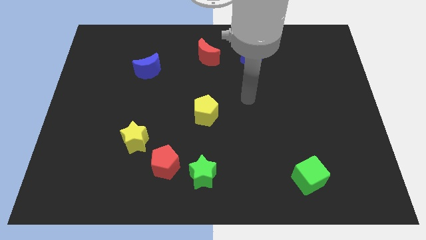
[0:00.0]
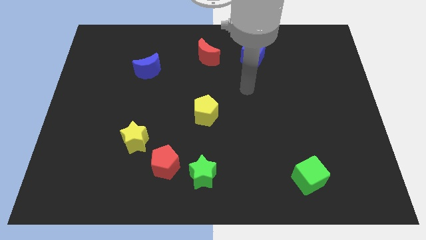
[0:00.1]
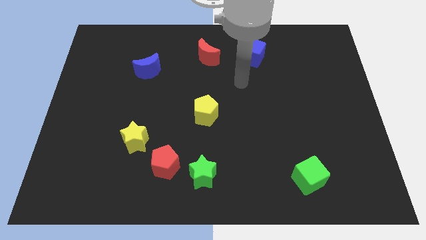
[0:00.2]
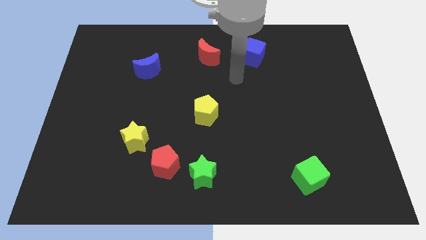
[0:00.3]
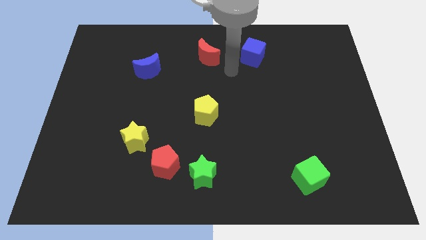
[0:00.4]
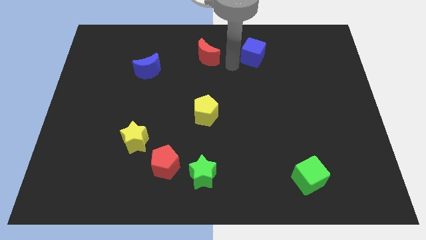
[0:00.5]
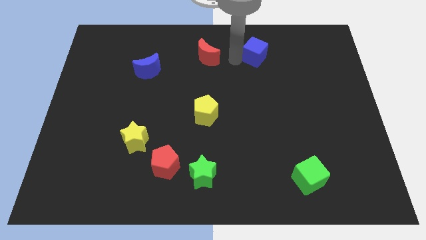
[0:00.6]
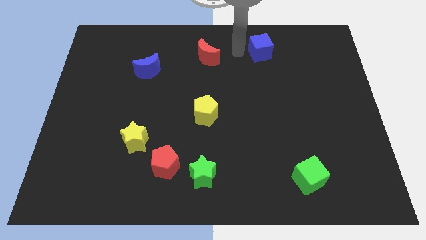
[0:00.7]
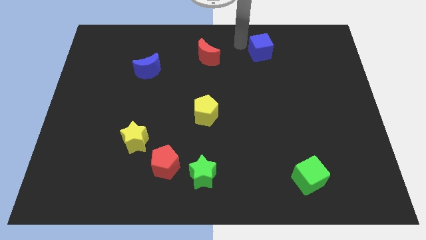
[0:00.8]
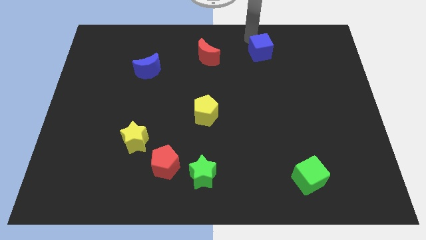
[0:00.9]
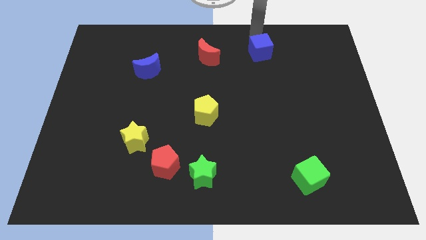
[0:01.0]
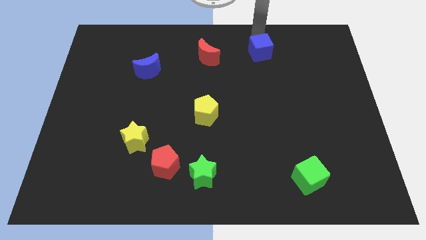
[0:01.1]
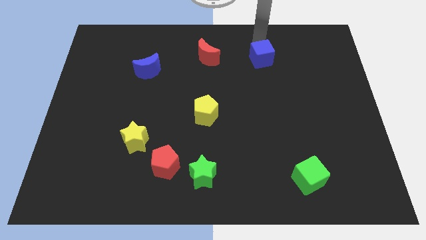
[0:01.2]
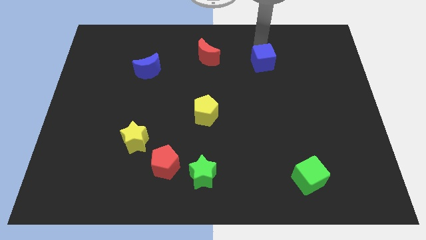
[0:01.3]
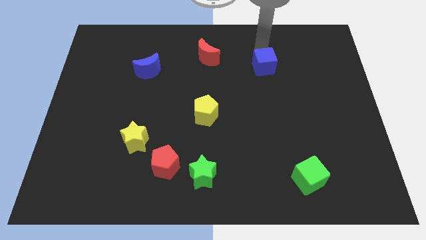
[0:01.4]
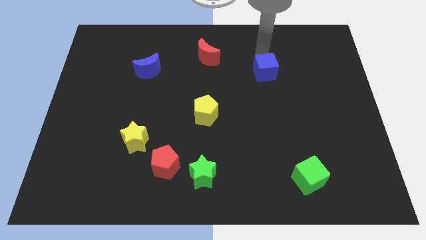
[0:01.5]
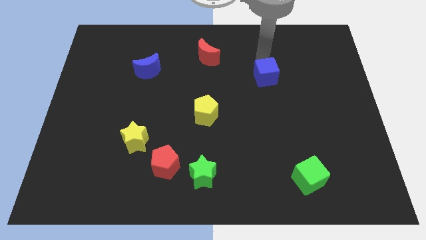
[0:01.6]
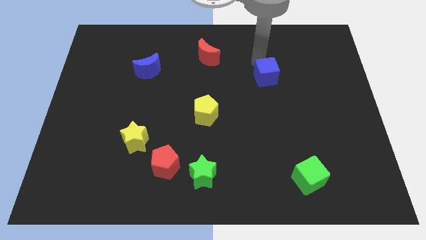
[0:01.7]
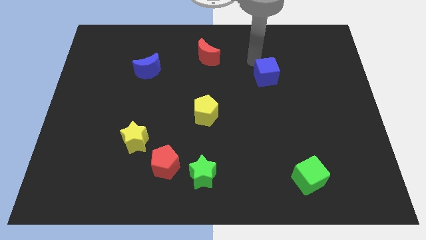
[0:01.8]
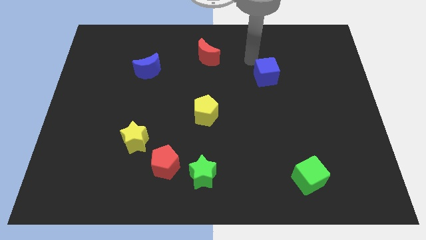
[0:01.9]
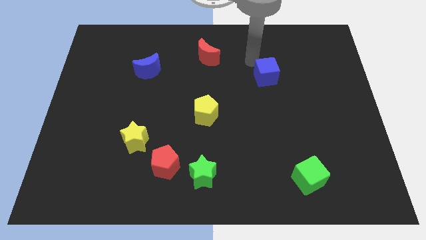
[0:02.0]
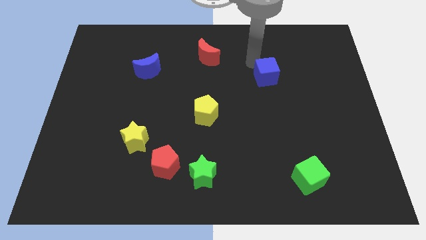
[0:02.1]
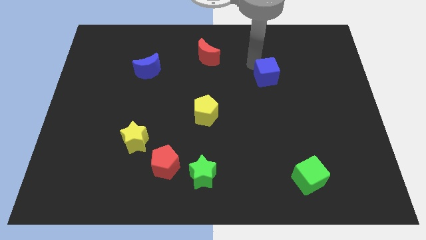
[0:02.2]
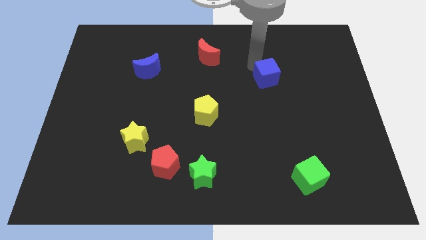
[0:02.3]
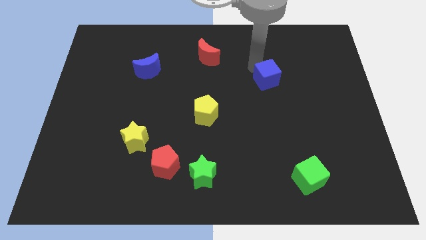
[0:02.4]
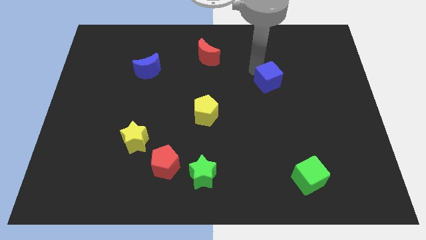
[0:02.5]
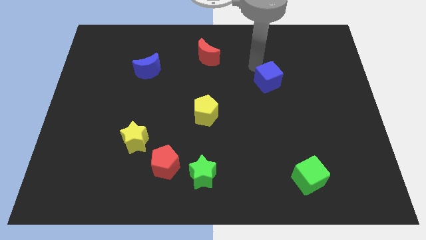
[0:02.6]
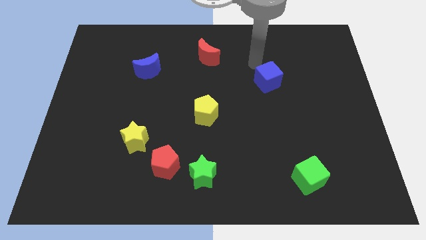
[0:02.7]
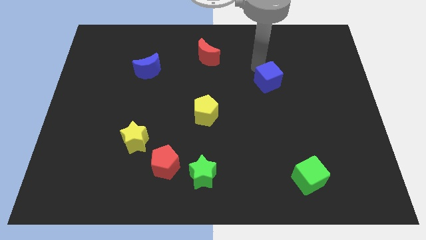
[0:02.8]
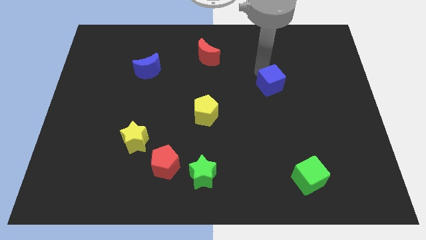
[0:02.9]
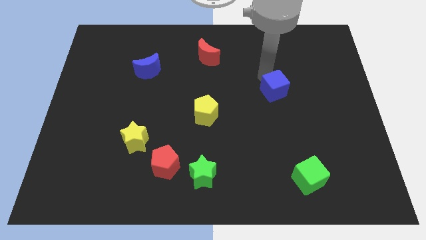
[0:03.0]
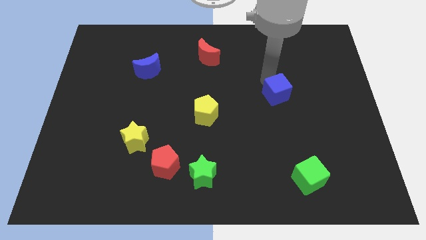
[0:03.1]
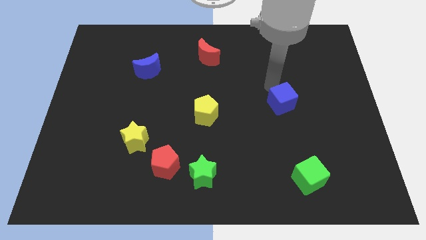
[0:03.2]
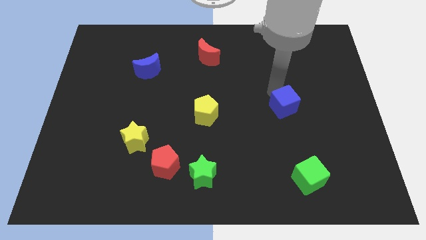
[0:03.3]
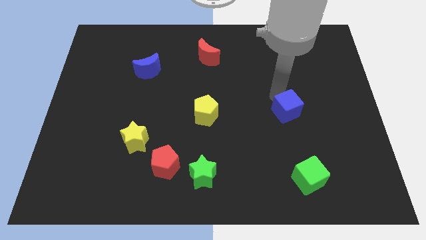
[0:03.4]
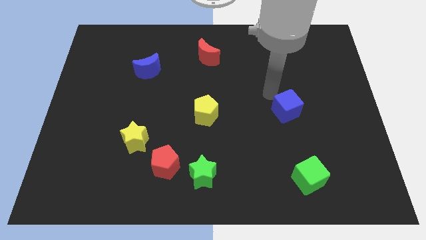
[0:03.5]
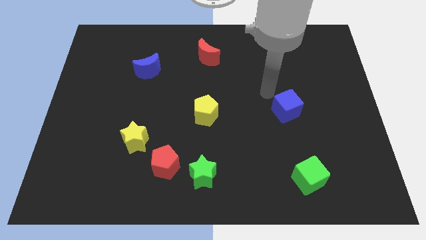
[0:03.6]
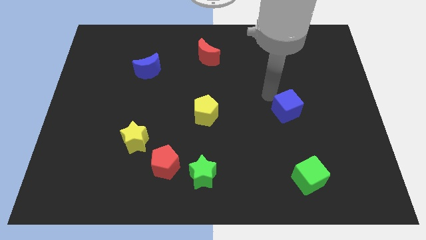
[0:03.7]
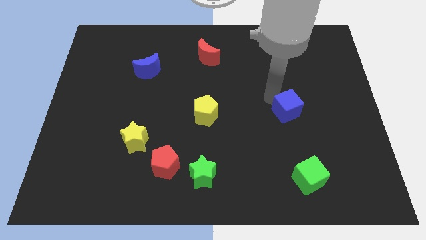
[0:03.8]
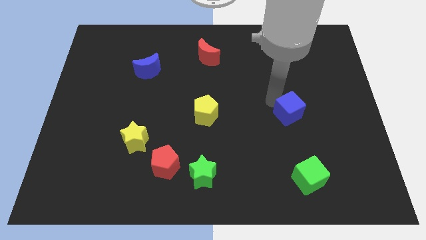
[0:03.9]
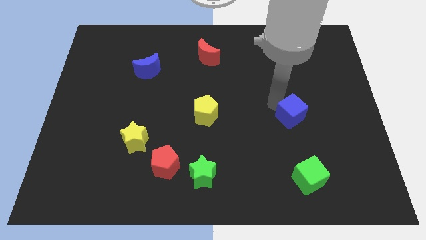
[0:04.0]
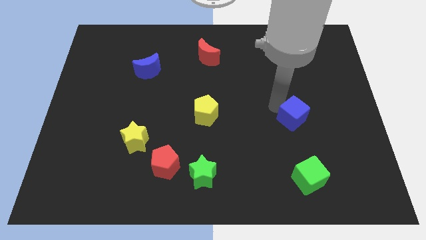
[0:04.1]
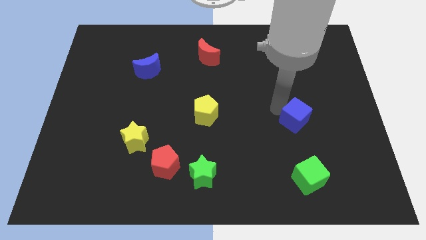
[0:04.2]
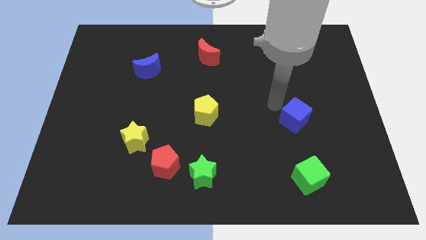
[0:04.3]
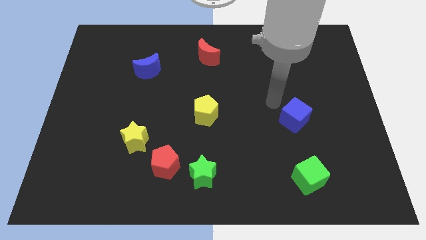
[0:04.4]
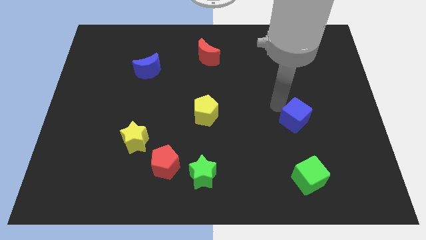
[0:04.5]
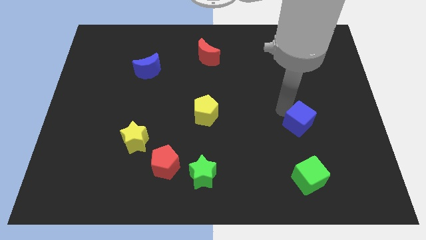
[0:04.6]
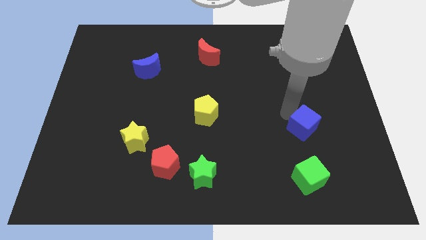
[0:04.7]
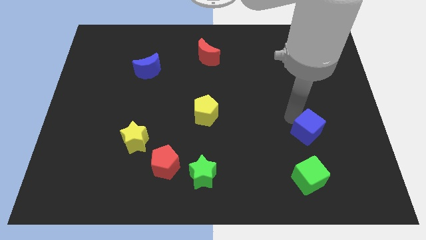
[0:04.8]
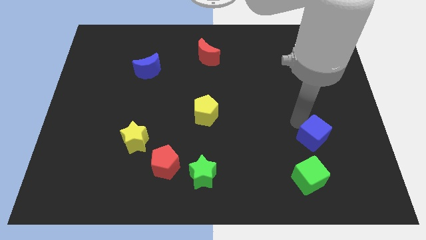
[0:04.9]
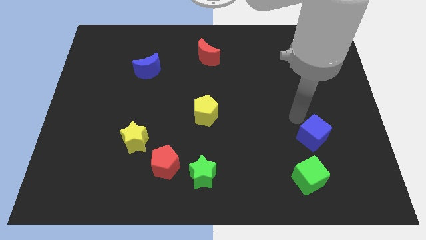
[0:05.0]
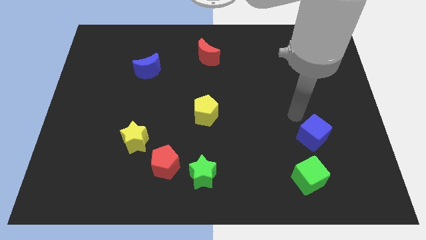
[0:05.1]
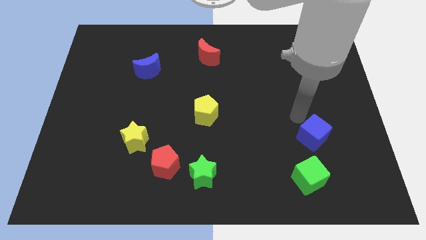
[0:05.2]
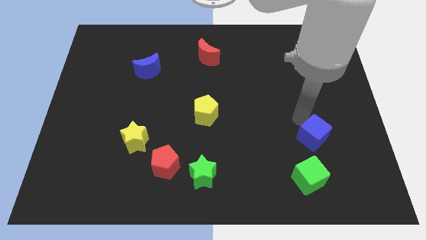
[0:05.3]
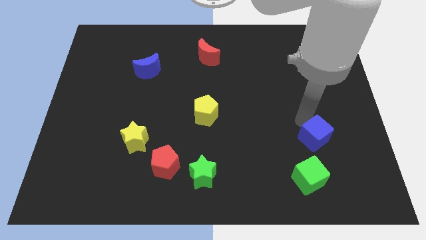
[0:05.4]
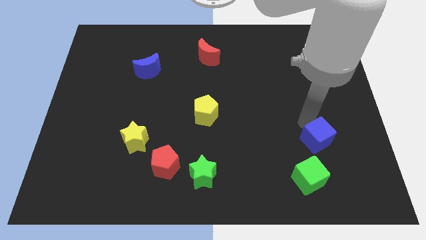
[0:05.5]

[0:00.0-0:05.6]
move the blue cube to the top right of the green cube
